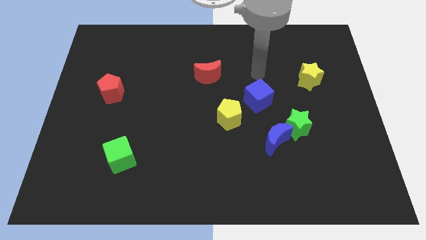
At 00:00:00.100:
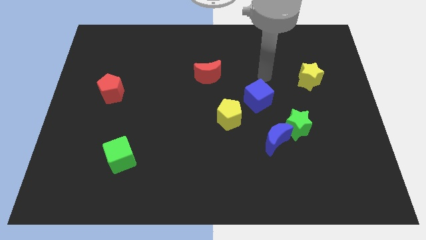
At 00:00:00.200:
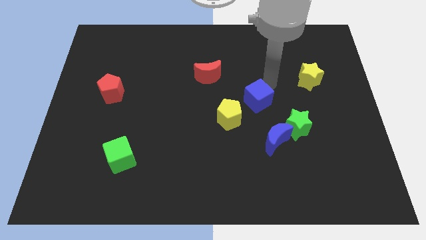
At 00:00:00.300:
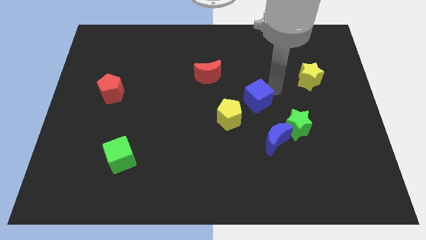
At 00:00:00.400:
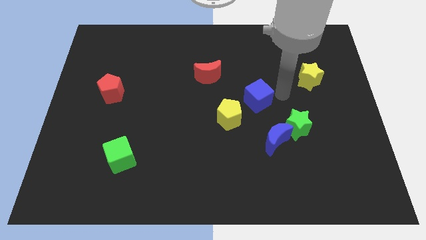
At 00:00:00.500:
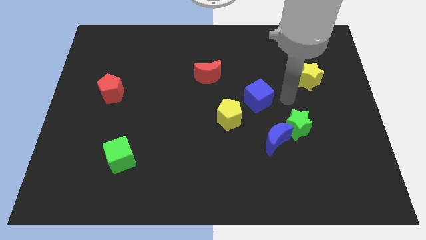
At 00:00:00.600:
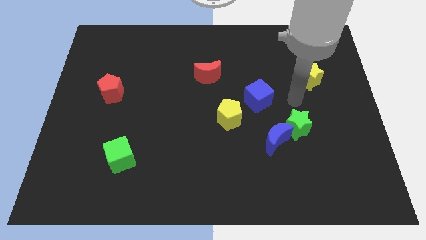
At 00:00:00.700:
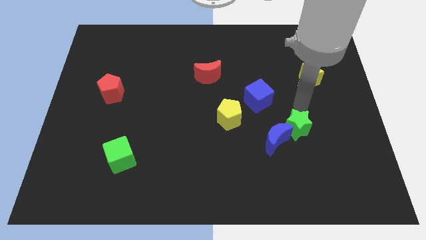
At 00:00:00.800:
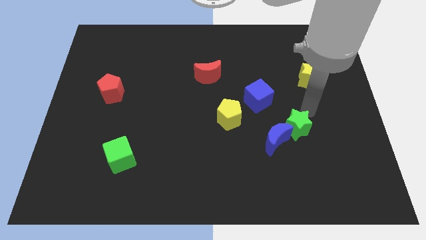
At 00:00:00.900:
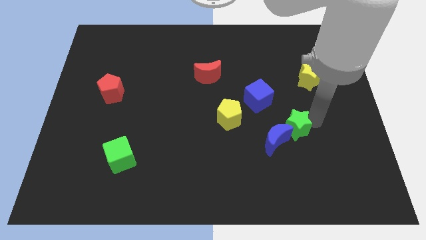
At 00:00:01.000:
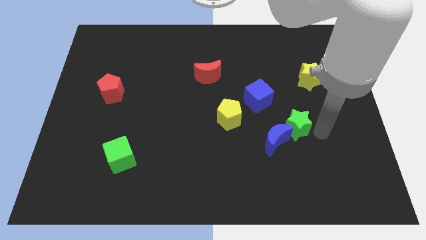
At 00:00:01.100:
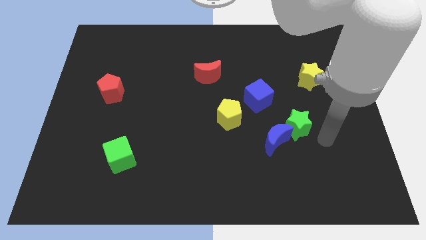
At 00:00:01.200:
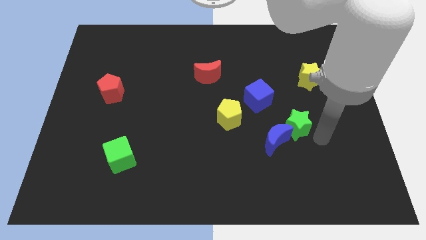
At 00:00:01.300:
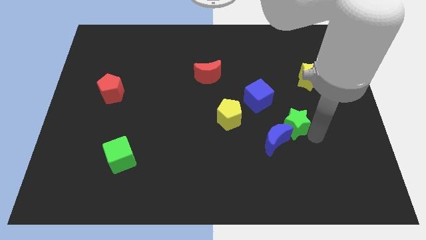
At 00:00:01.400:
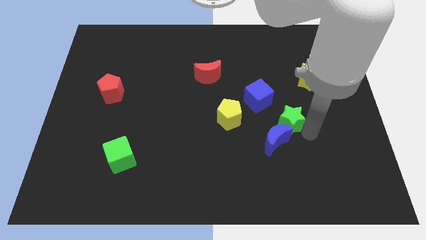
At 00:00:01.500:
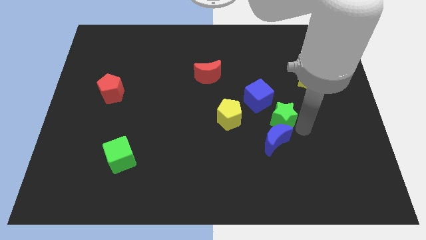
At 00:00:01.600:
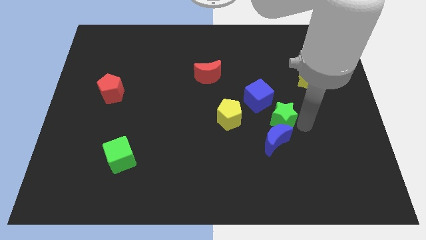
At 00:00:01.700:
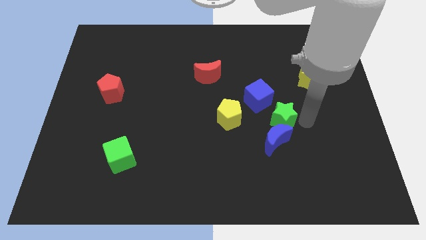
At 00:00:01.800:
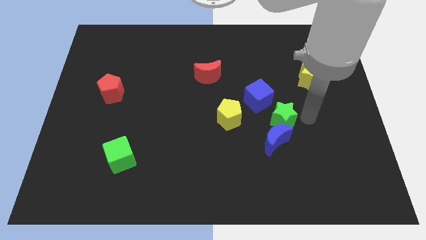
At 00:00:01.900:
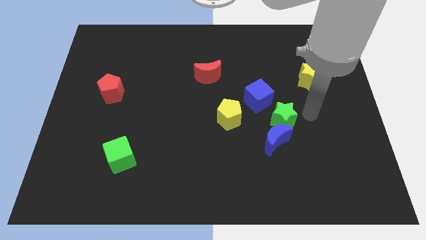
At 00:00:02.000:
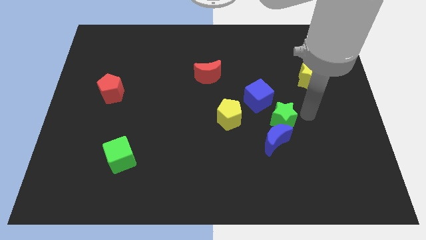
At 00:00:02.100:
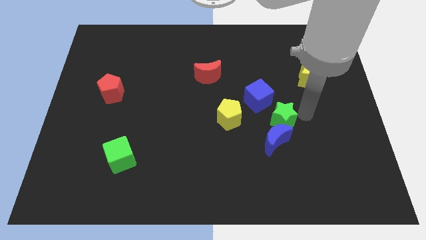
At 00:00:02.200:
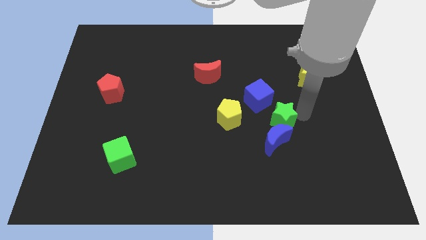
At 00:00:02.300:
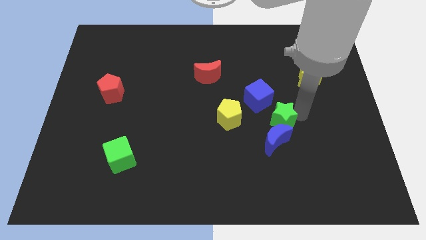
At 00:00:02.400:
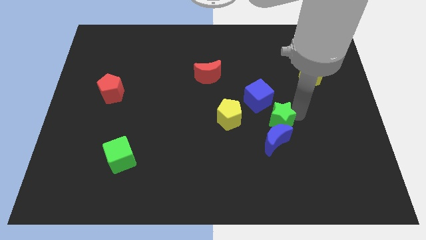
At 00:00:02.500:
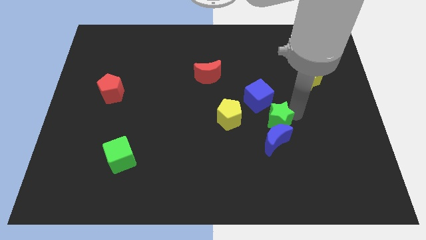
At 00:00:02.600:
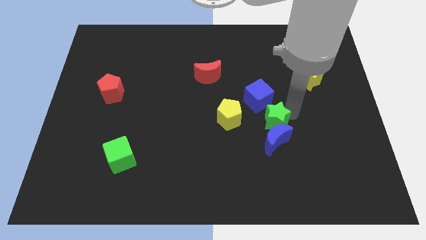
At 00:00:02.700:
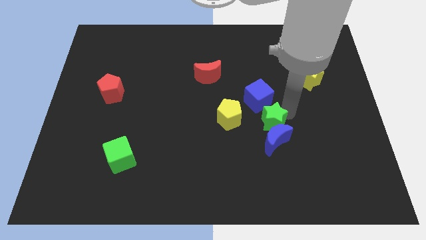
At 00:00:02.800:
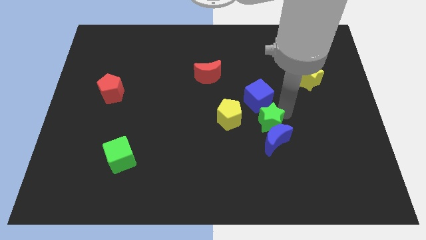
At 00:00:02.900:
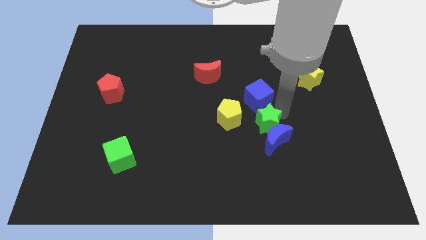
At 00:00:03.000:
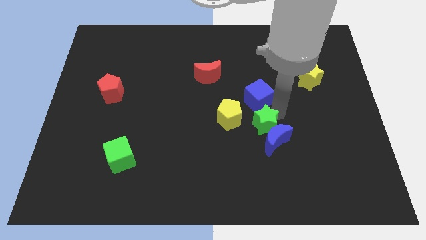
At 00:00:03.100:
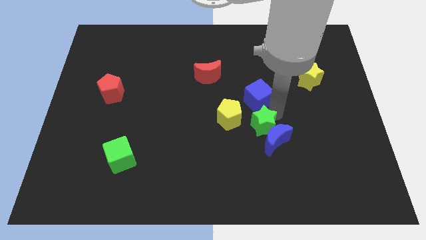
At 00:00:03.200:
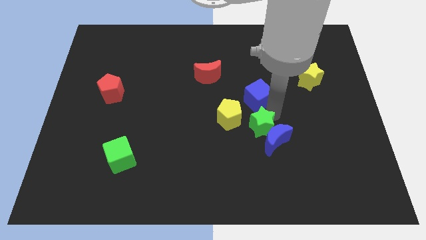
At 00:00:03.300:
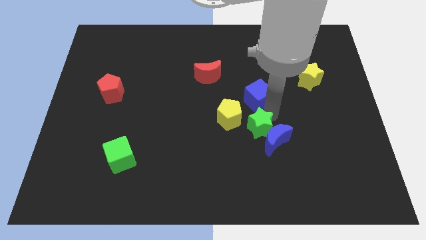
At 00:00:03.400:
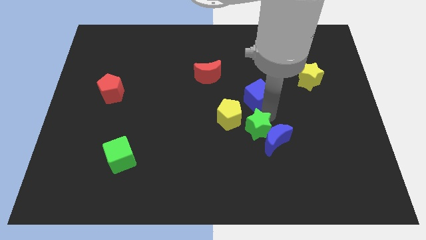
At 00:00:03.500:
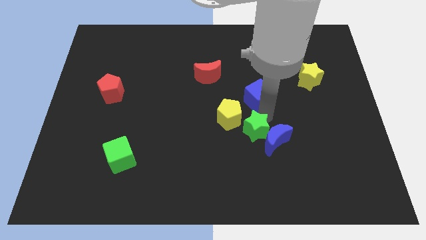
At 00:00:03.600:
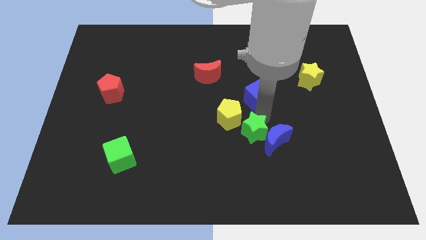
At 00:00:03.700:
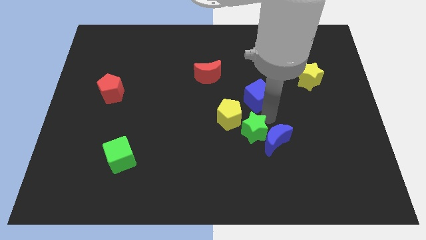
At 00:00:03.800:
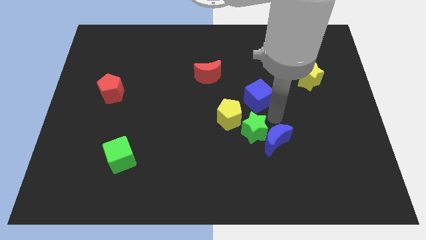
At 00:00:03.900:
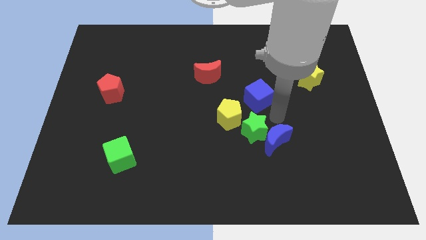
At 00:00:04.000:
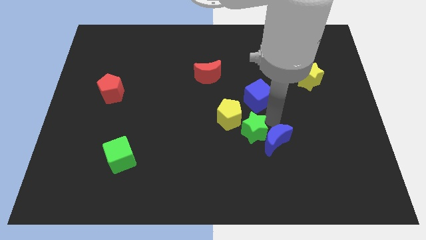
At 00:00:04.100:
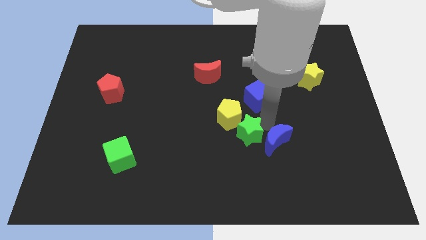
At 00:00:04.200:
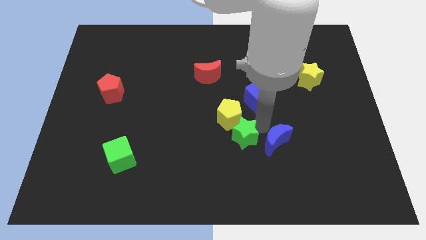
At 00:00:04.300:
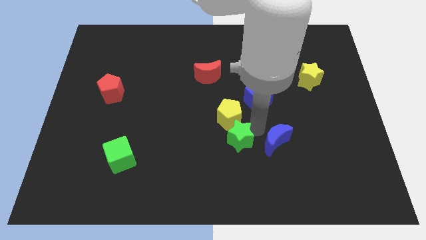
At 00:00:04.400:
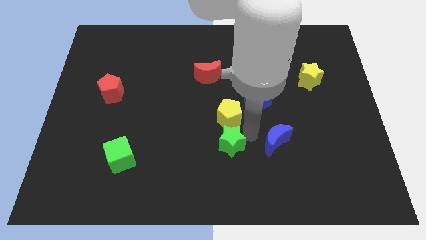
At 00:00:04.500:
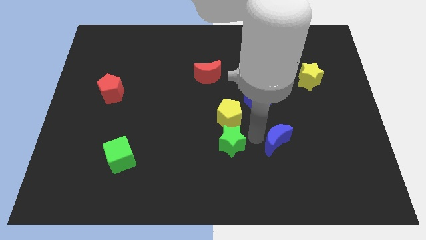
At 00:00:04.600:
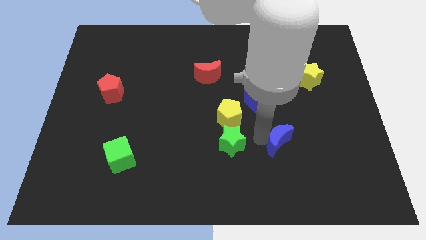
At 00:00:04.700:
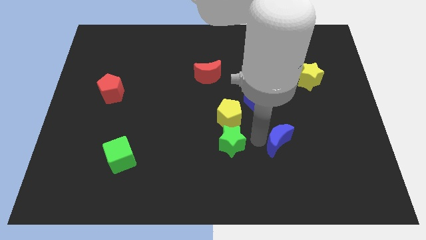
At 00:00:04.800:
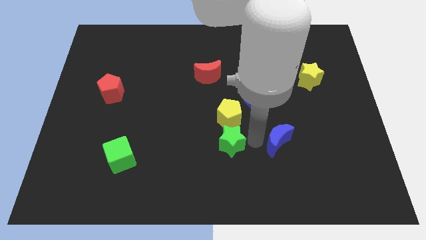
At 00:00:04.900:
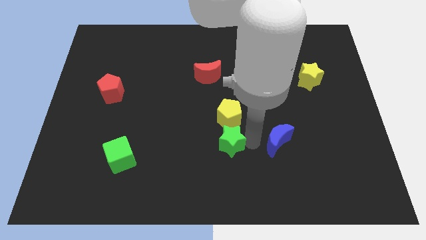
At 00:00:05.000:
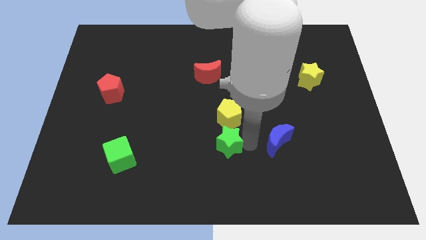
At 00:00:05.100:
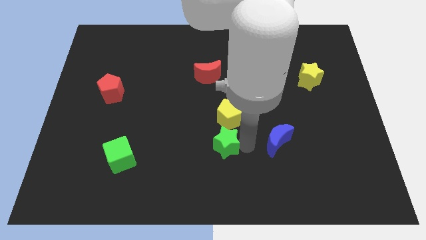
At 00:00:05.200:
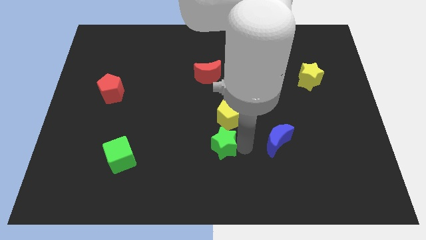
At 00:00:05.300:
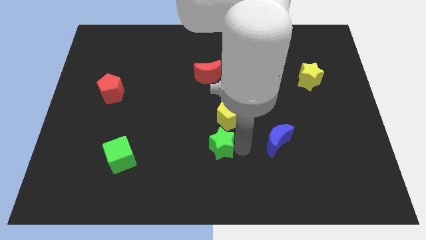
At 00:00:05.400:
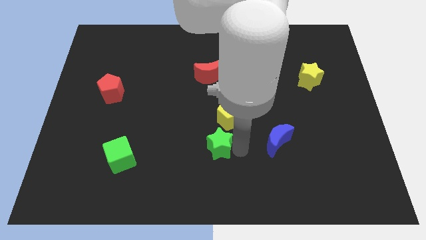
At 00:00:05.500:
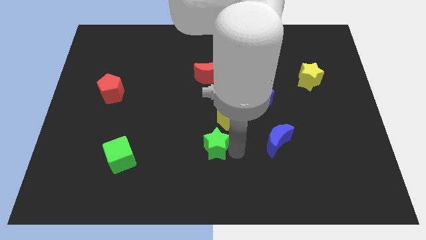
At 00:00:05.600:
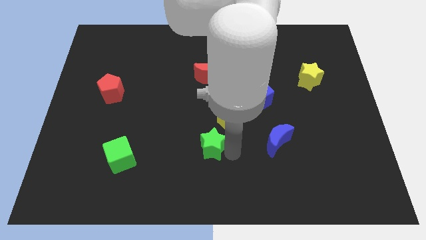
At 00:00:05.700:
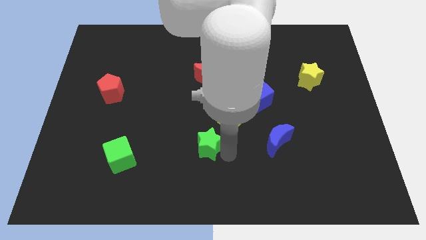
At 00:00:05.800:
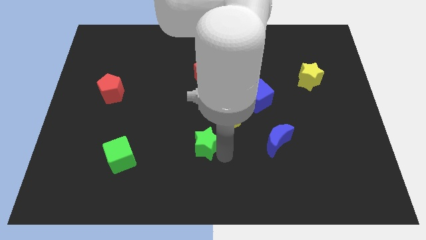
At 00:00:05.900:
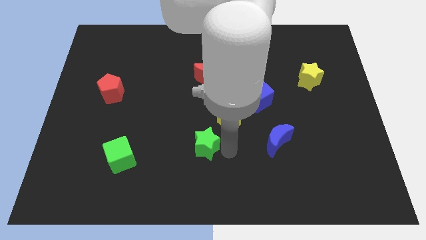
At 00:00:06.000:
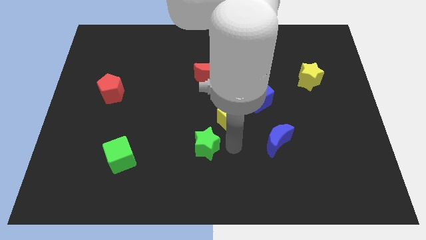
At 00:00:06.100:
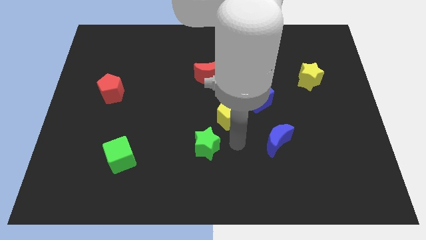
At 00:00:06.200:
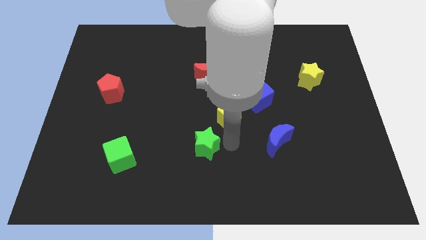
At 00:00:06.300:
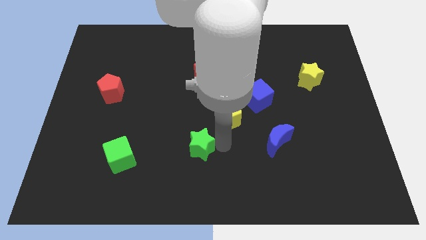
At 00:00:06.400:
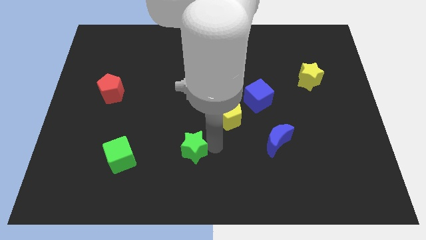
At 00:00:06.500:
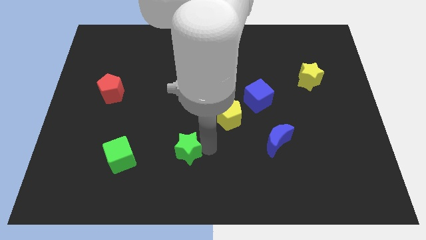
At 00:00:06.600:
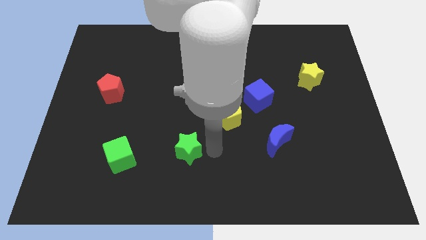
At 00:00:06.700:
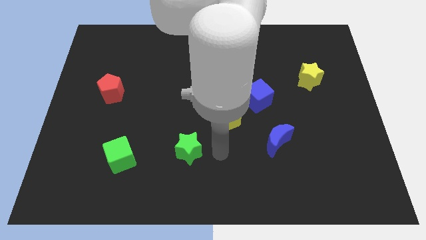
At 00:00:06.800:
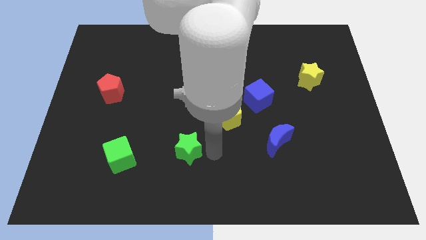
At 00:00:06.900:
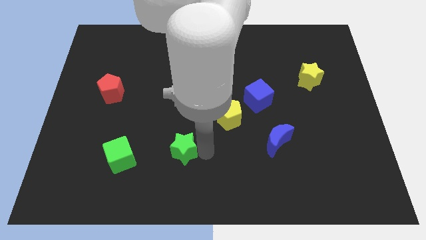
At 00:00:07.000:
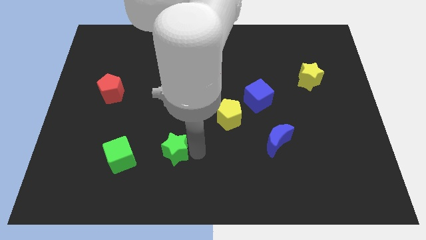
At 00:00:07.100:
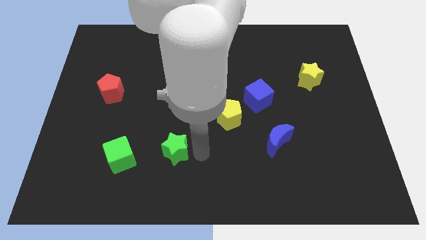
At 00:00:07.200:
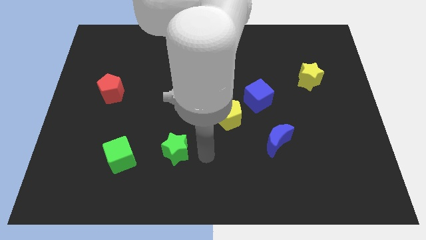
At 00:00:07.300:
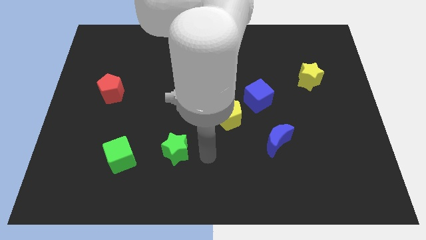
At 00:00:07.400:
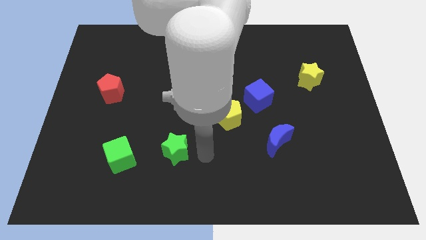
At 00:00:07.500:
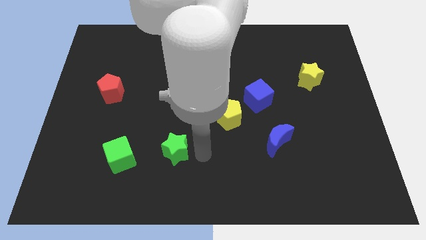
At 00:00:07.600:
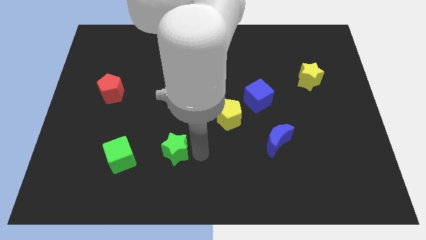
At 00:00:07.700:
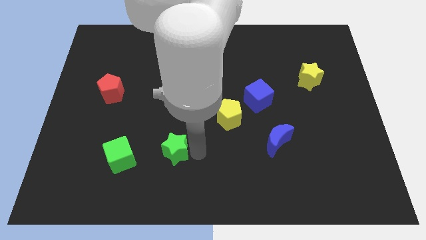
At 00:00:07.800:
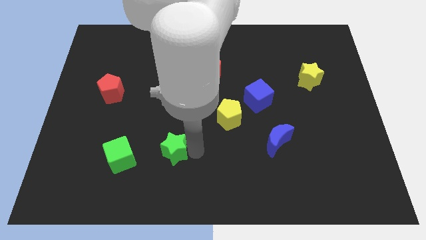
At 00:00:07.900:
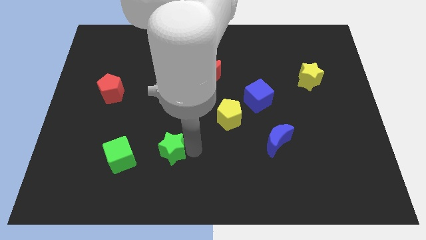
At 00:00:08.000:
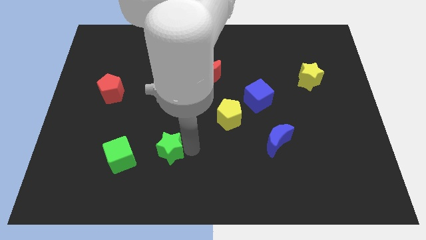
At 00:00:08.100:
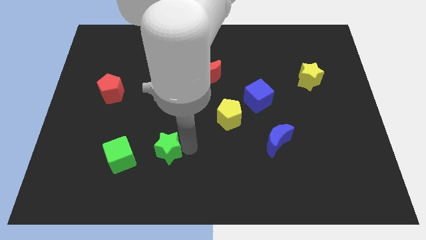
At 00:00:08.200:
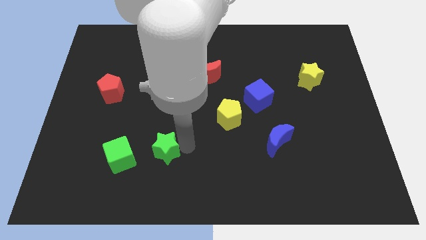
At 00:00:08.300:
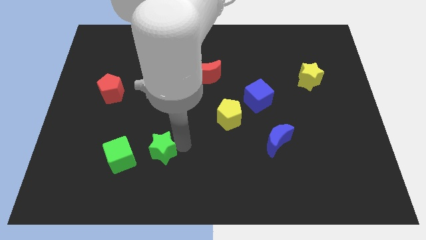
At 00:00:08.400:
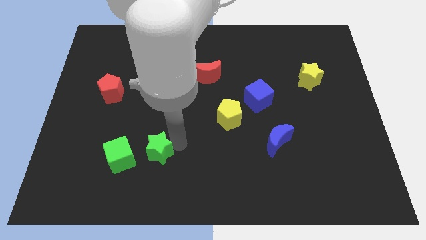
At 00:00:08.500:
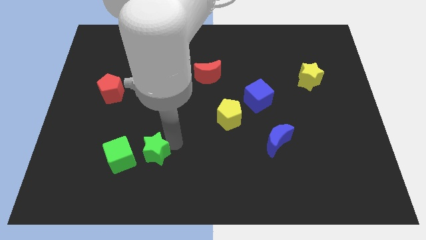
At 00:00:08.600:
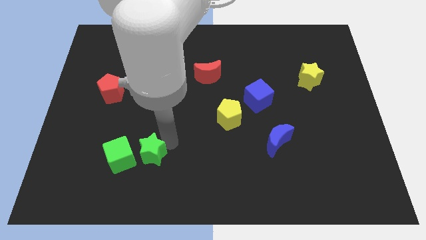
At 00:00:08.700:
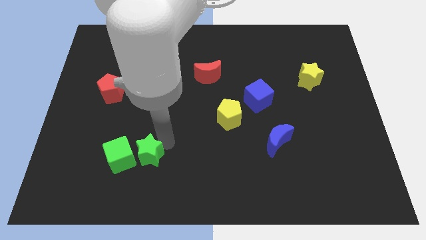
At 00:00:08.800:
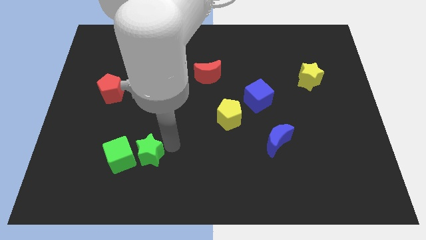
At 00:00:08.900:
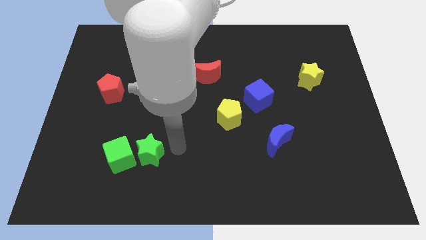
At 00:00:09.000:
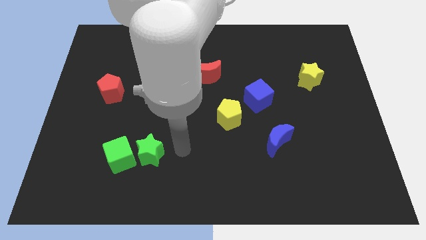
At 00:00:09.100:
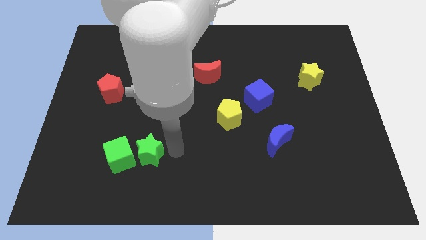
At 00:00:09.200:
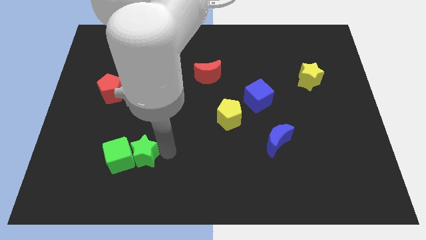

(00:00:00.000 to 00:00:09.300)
slide the green star next to the green cube
